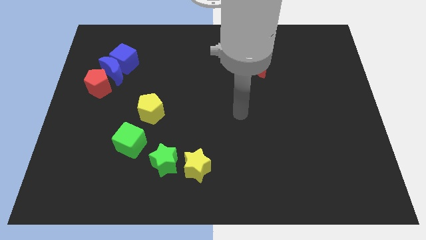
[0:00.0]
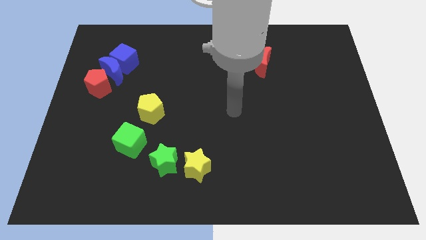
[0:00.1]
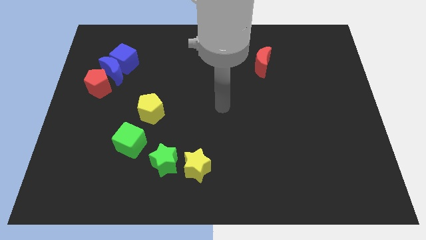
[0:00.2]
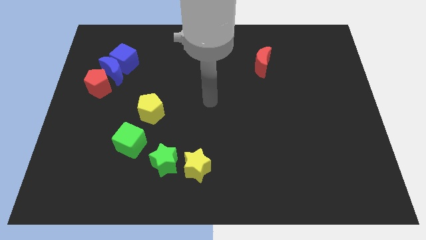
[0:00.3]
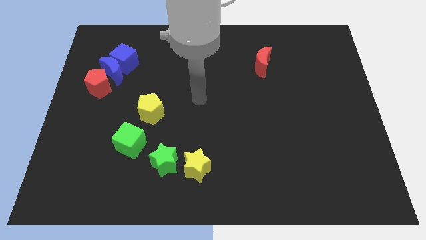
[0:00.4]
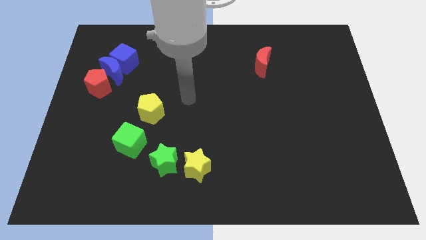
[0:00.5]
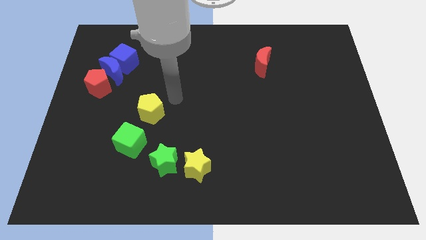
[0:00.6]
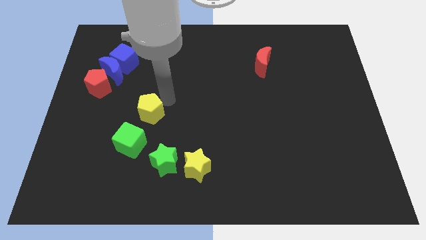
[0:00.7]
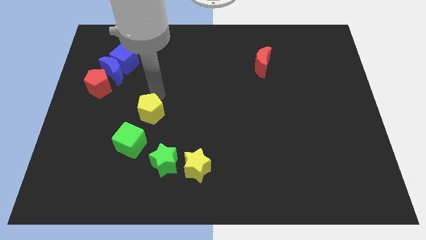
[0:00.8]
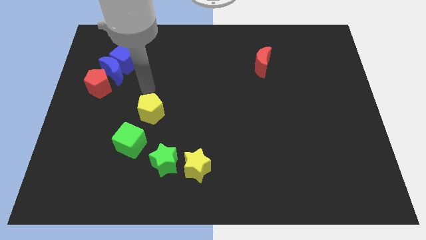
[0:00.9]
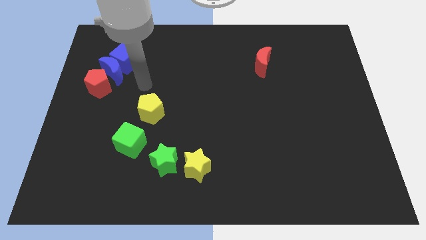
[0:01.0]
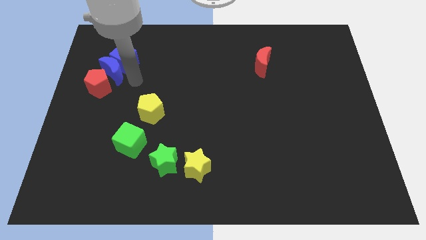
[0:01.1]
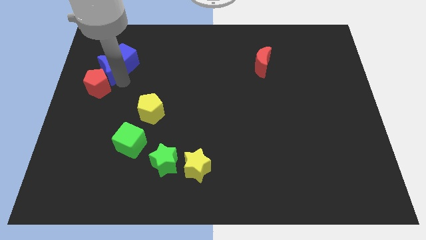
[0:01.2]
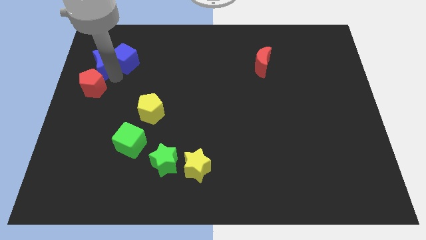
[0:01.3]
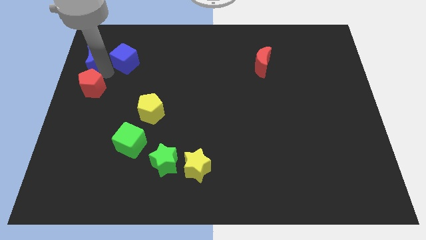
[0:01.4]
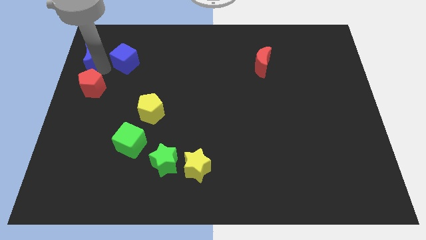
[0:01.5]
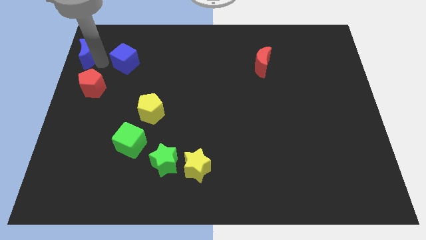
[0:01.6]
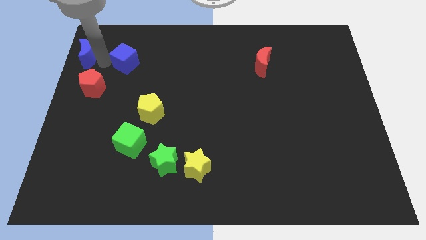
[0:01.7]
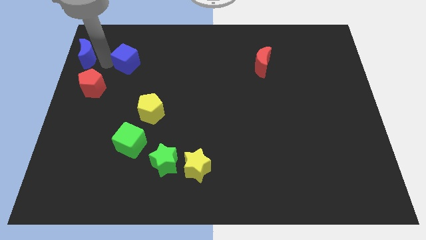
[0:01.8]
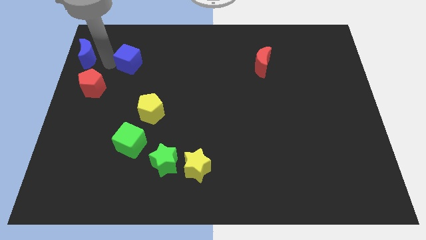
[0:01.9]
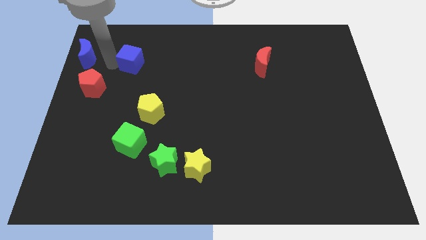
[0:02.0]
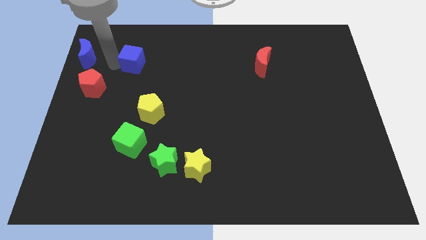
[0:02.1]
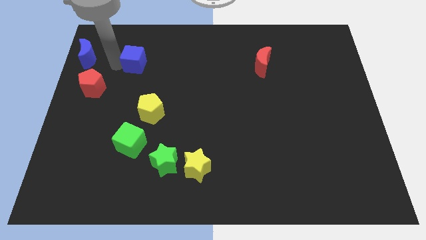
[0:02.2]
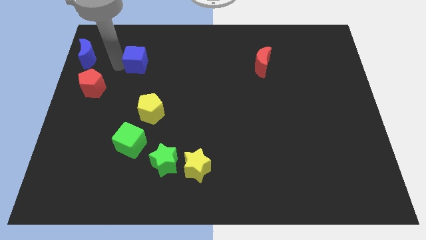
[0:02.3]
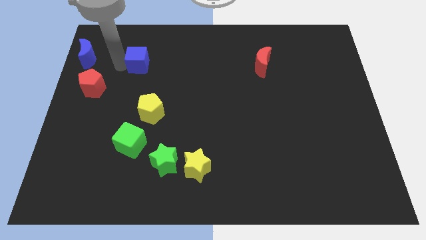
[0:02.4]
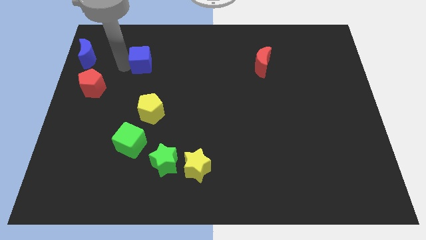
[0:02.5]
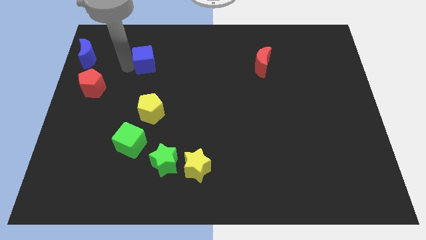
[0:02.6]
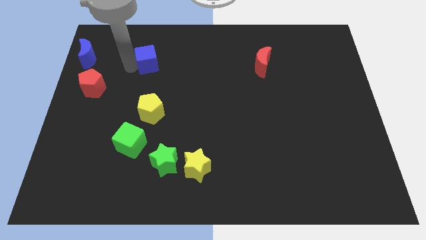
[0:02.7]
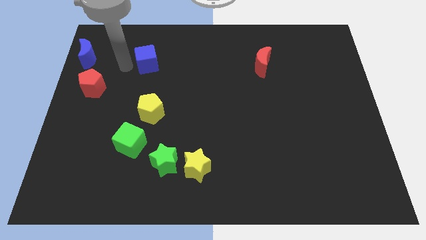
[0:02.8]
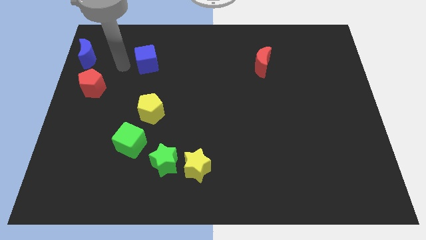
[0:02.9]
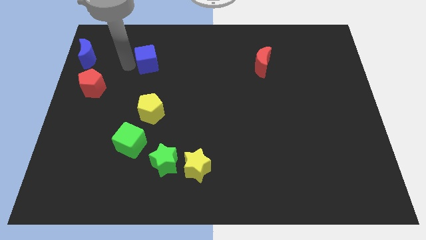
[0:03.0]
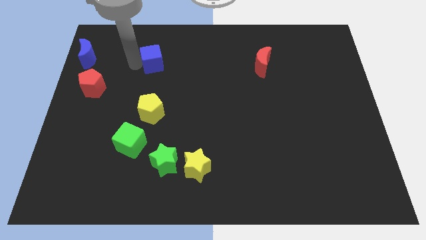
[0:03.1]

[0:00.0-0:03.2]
push the blue cube slightly right

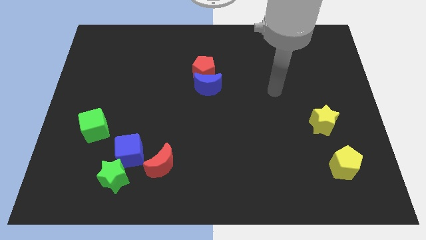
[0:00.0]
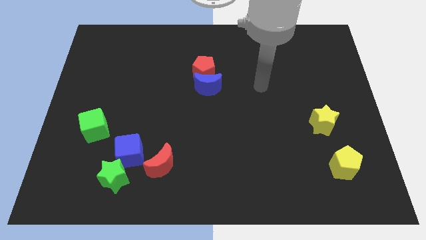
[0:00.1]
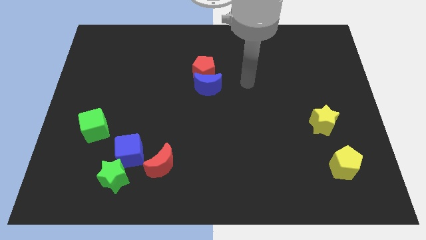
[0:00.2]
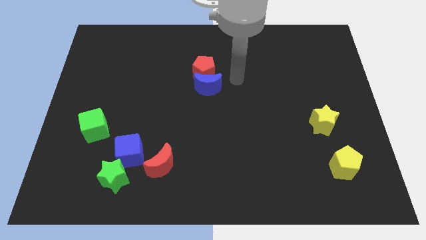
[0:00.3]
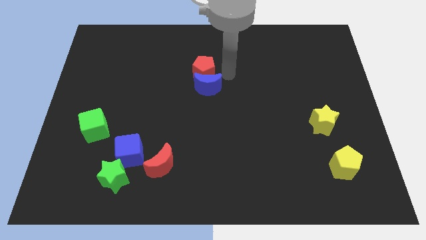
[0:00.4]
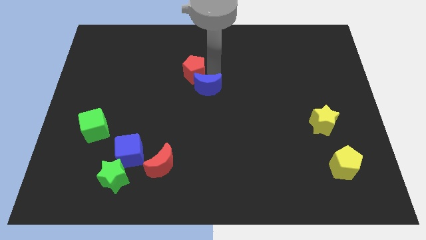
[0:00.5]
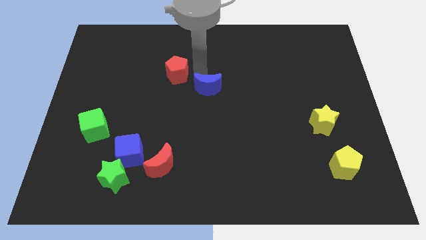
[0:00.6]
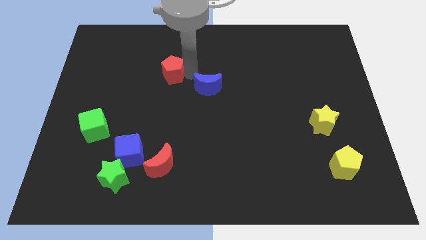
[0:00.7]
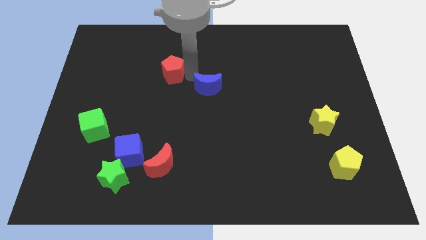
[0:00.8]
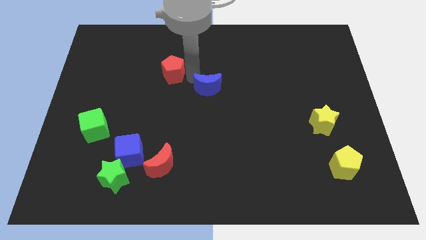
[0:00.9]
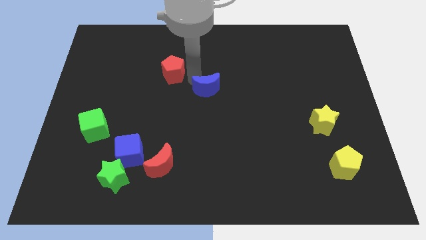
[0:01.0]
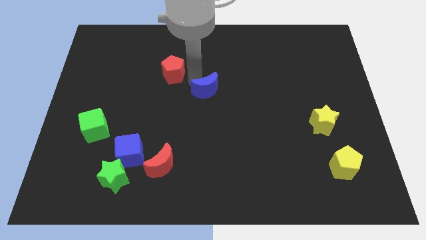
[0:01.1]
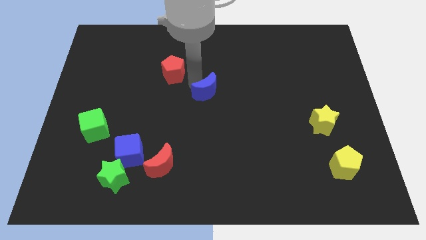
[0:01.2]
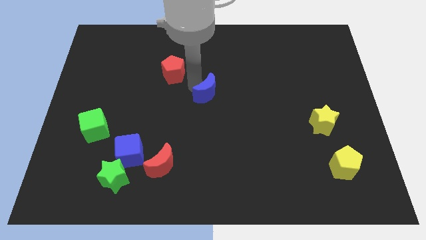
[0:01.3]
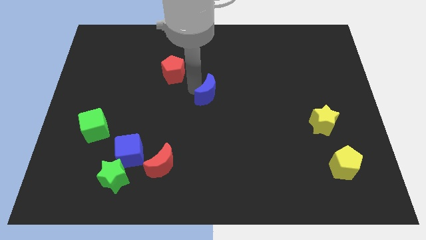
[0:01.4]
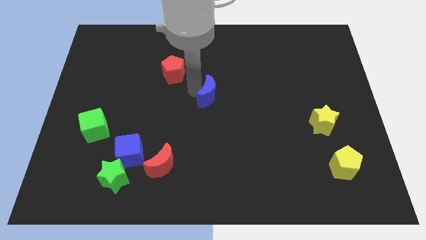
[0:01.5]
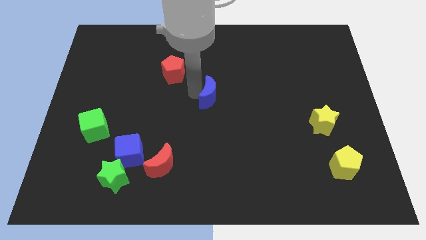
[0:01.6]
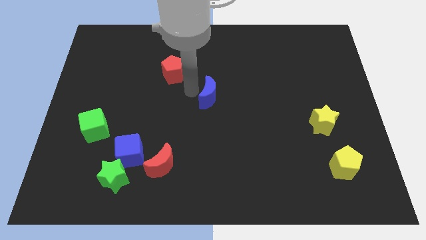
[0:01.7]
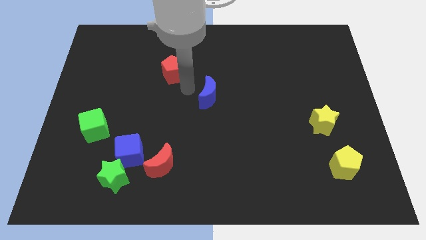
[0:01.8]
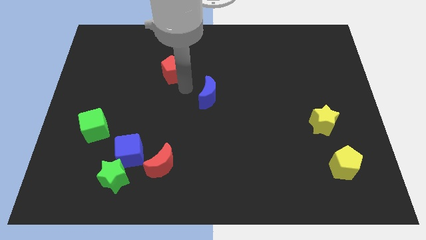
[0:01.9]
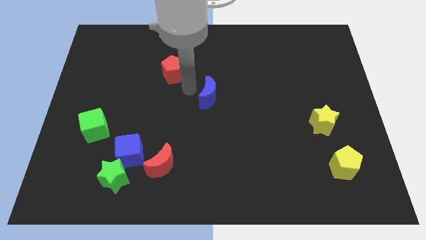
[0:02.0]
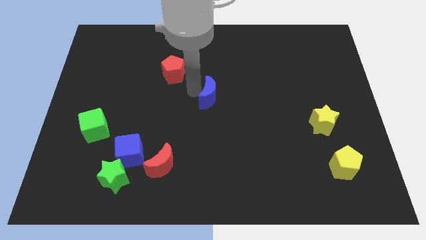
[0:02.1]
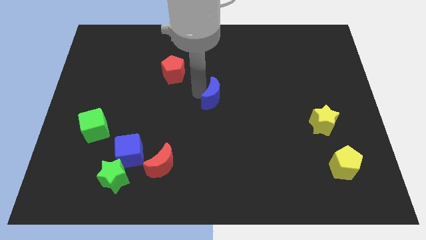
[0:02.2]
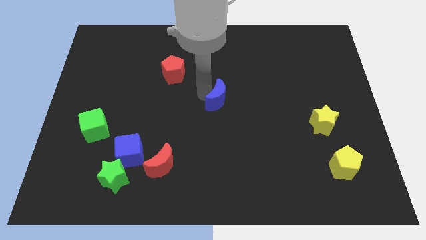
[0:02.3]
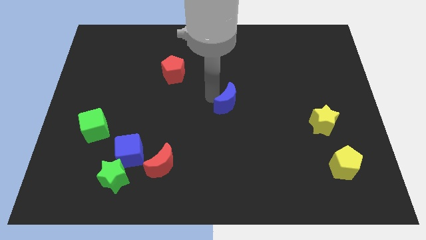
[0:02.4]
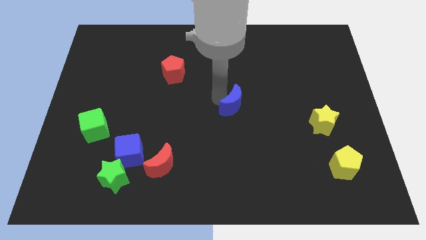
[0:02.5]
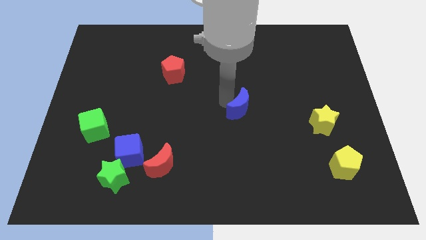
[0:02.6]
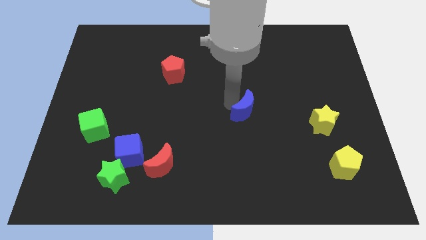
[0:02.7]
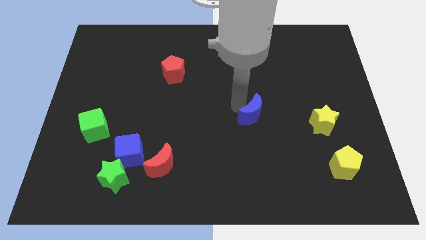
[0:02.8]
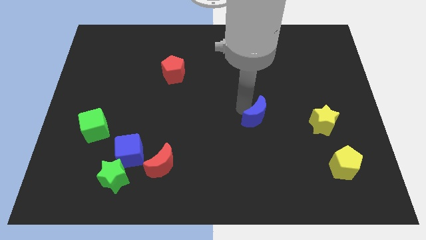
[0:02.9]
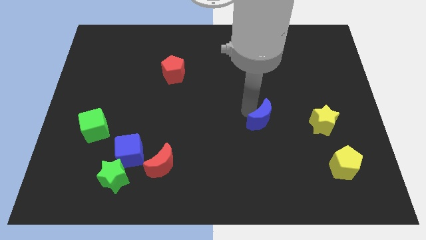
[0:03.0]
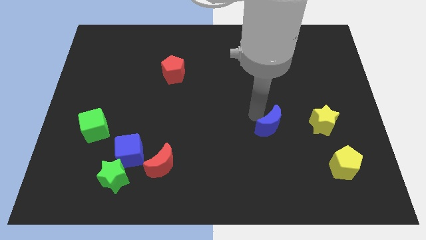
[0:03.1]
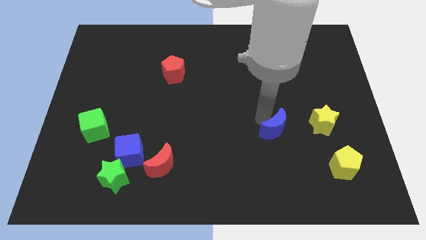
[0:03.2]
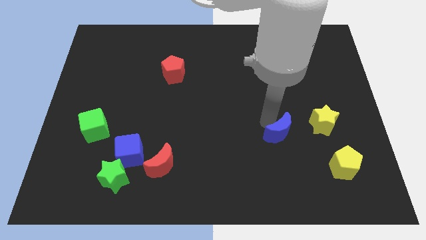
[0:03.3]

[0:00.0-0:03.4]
push the blue moon down and right diagonally

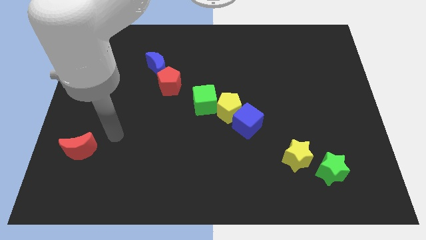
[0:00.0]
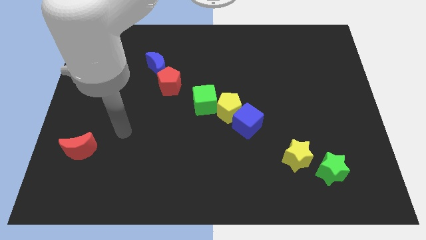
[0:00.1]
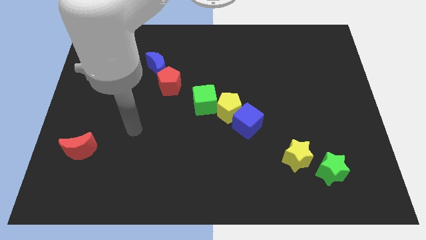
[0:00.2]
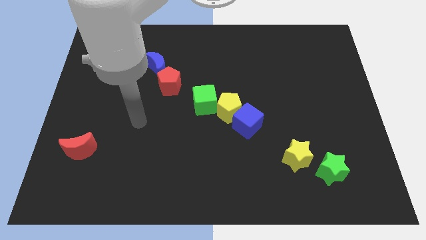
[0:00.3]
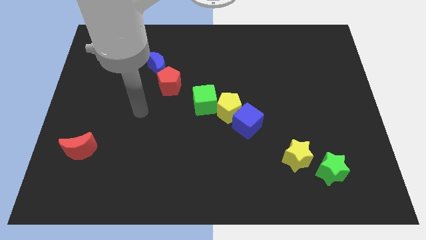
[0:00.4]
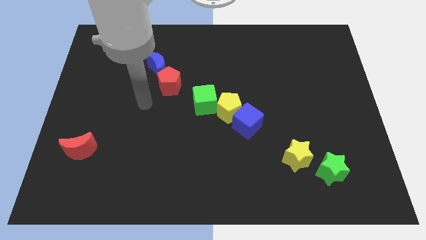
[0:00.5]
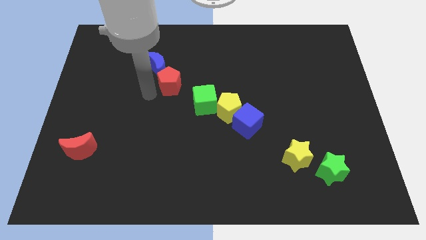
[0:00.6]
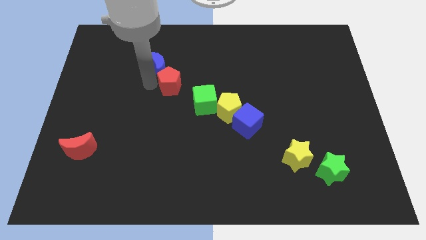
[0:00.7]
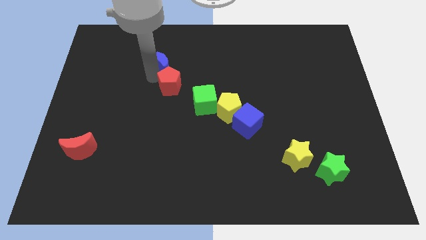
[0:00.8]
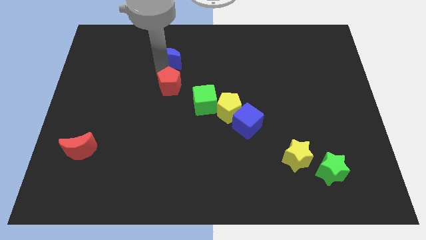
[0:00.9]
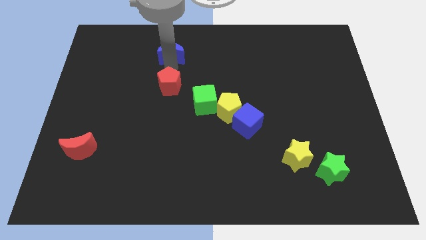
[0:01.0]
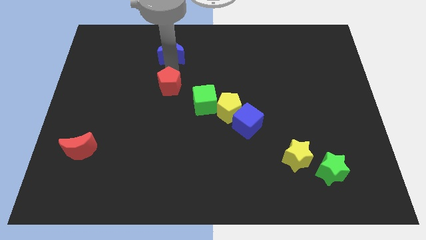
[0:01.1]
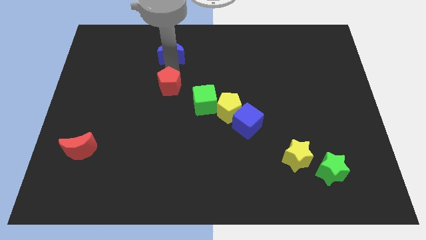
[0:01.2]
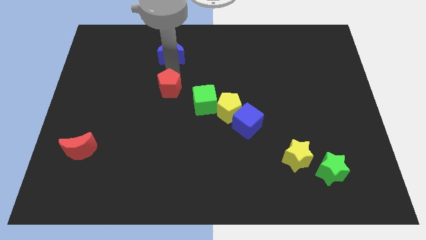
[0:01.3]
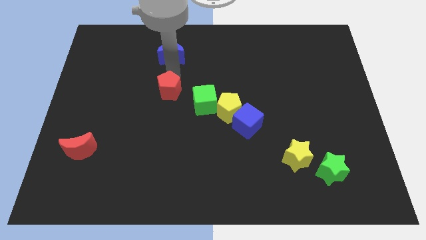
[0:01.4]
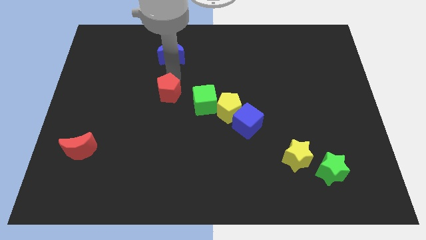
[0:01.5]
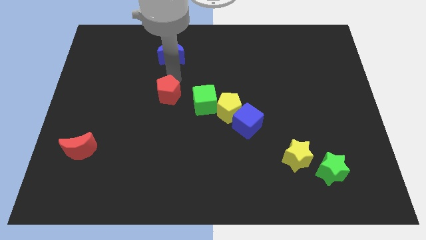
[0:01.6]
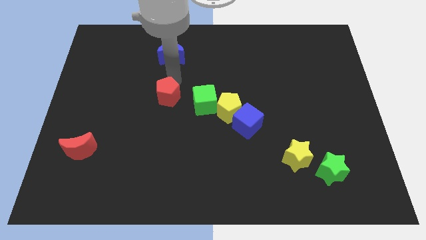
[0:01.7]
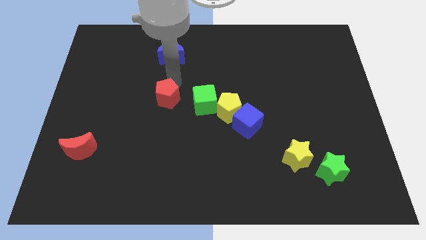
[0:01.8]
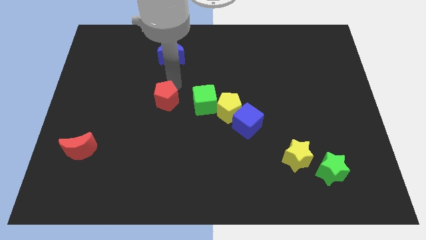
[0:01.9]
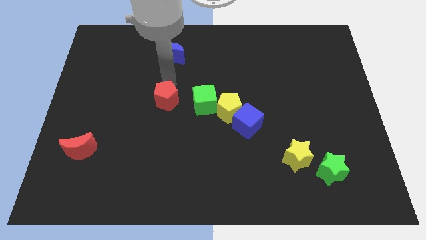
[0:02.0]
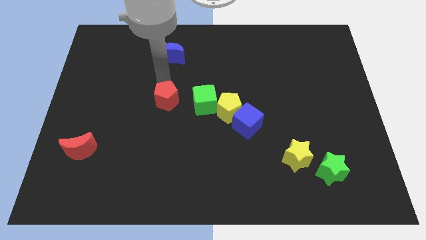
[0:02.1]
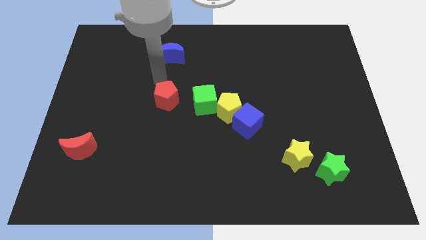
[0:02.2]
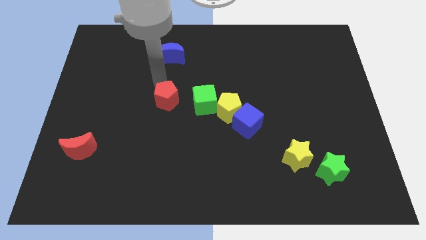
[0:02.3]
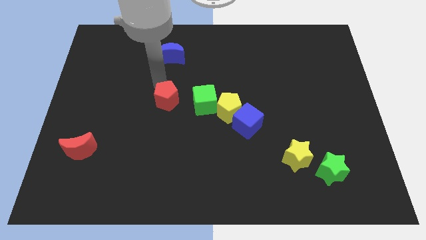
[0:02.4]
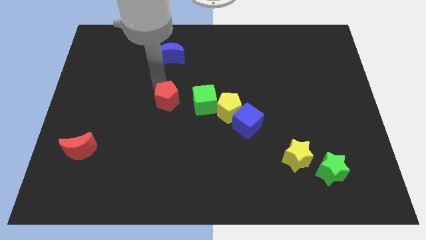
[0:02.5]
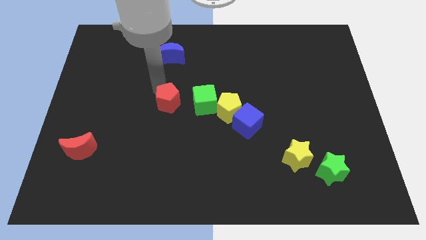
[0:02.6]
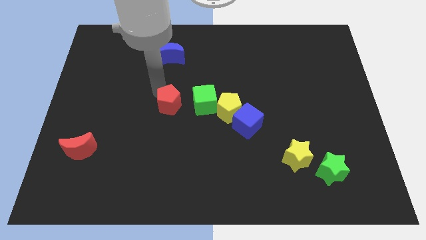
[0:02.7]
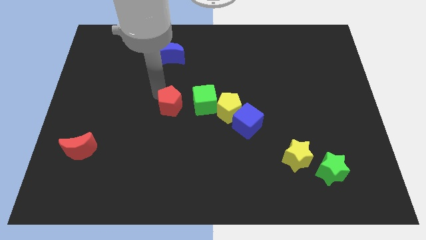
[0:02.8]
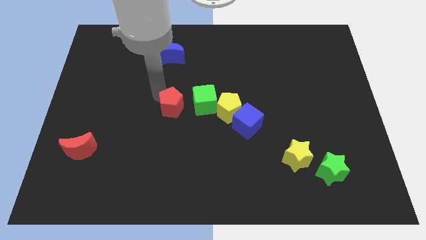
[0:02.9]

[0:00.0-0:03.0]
push the red pentagon somewhat down
